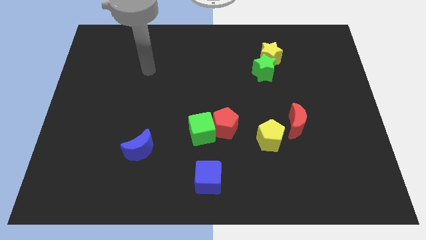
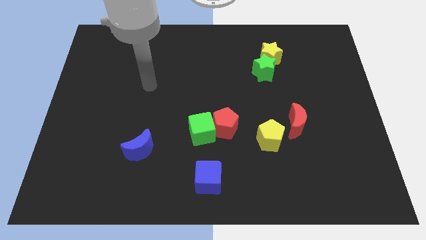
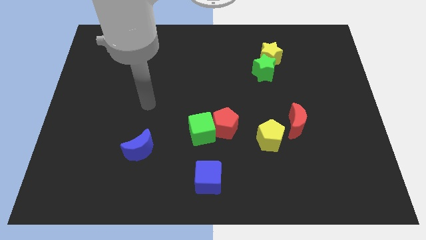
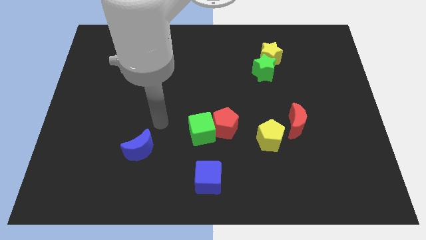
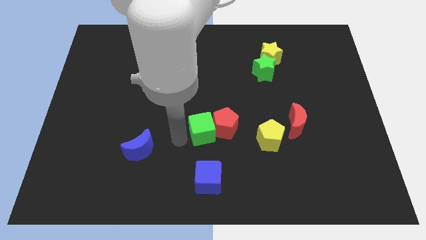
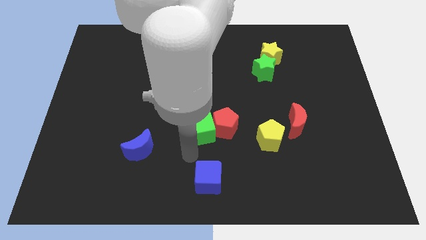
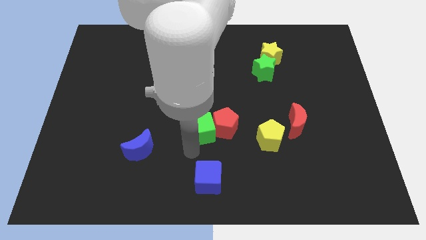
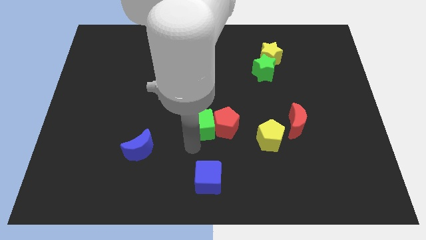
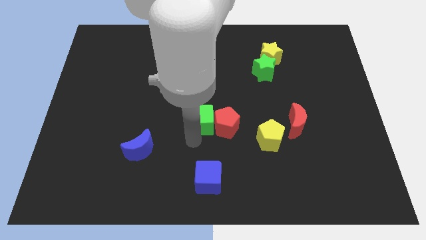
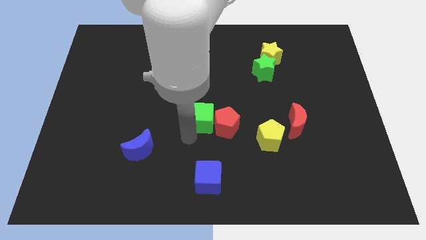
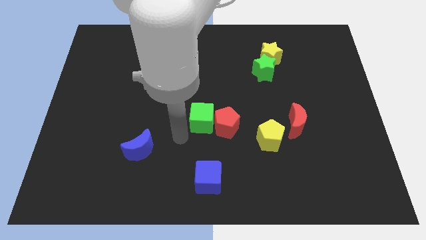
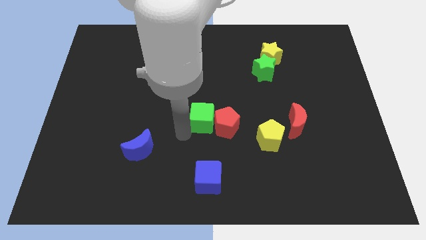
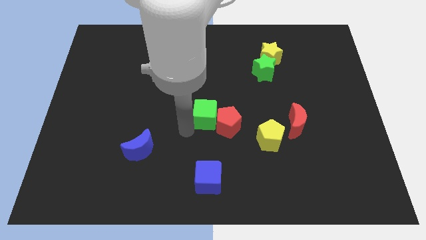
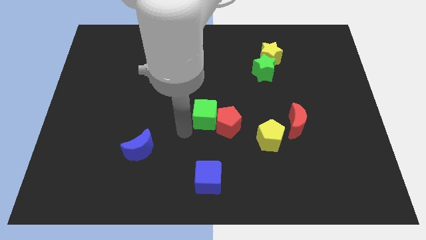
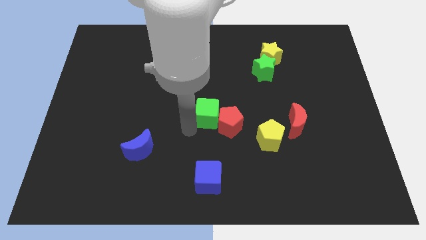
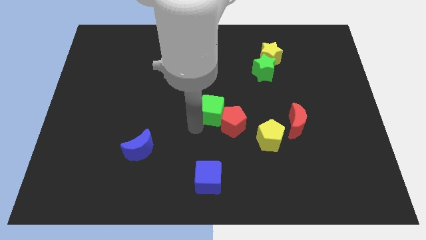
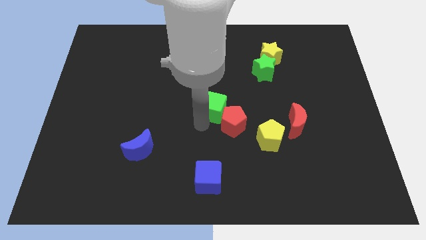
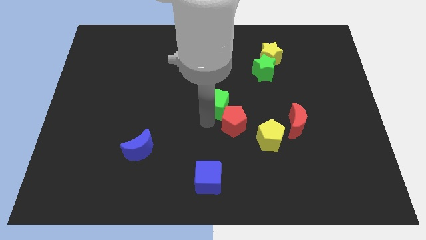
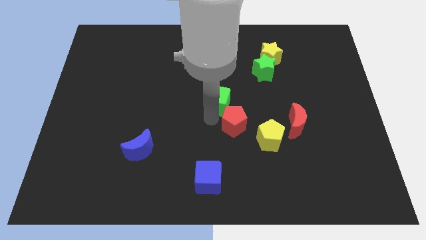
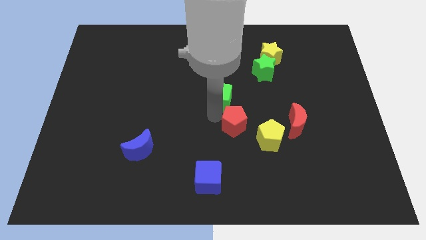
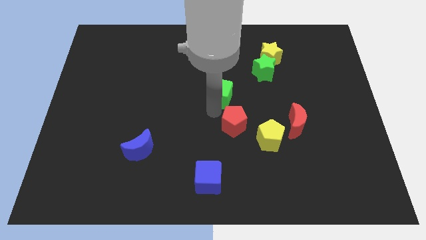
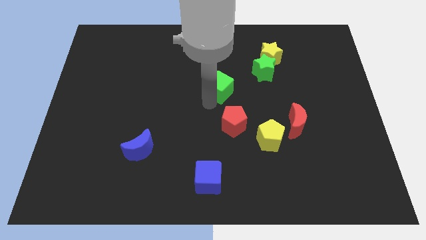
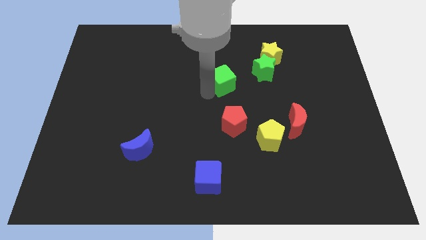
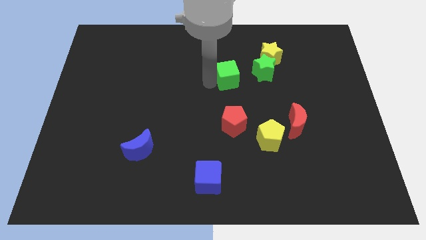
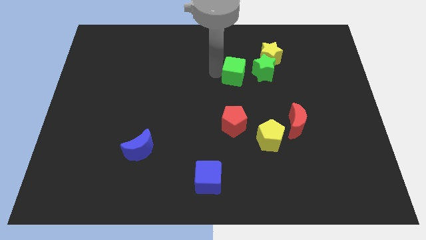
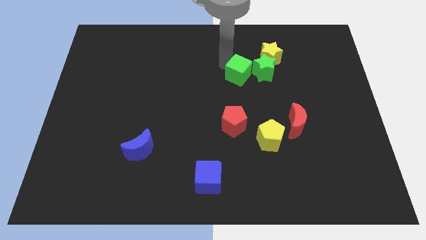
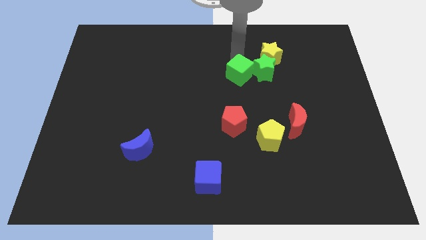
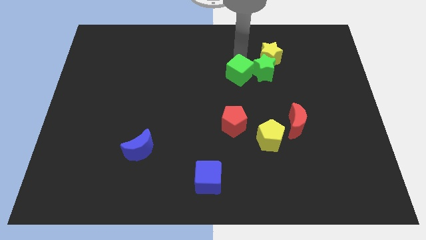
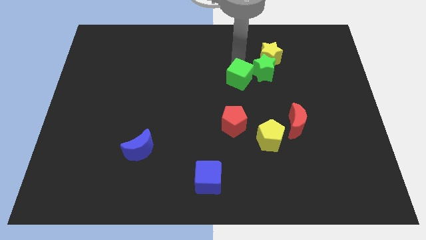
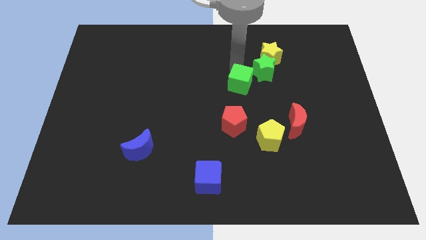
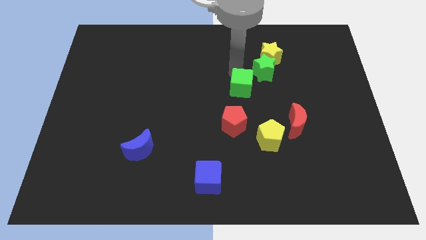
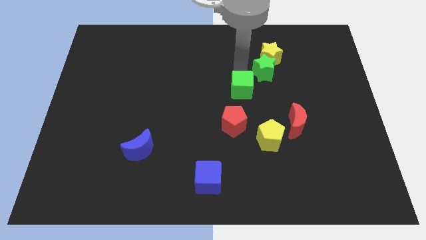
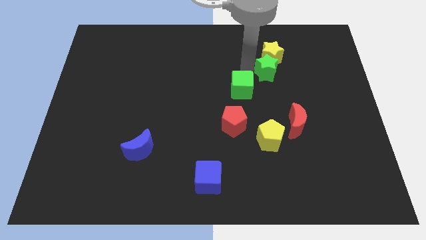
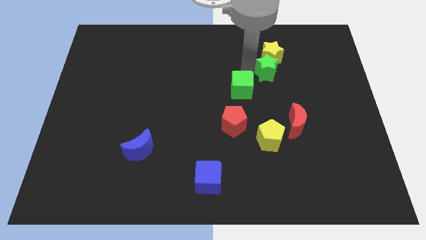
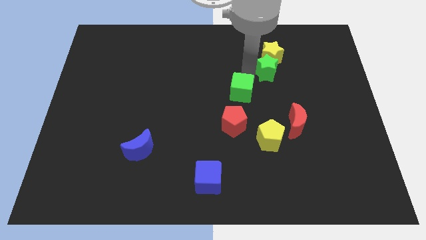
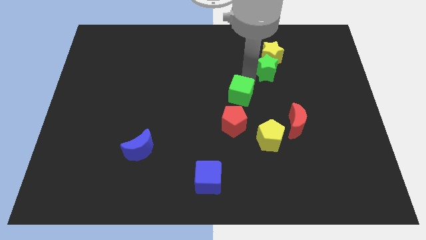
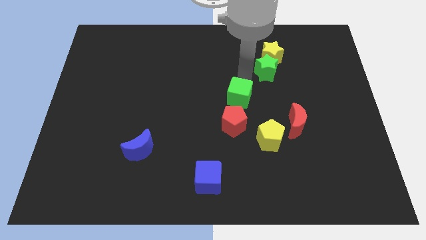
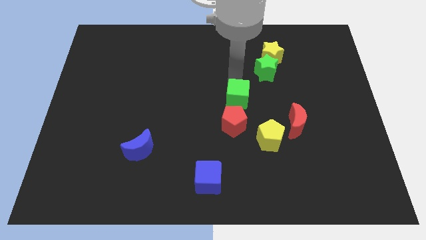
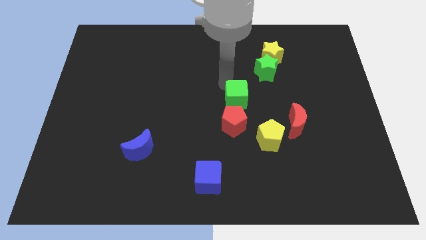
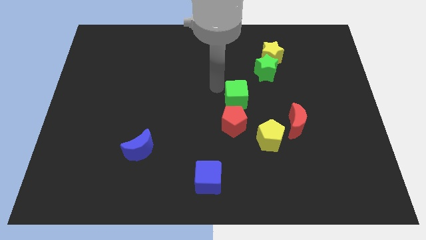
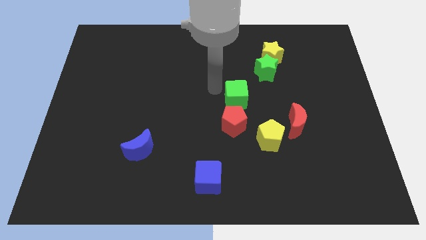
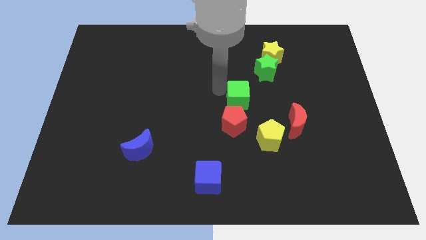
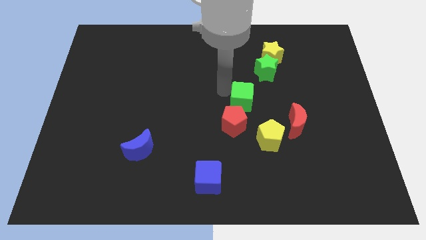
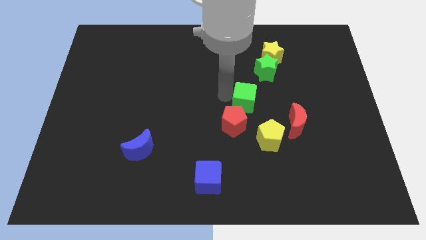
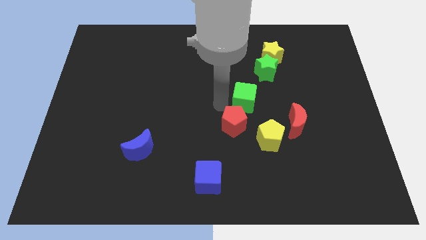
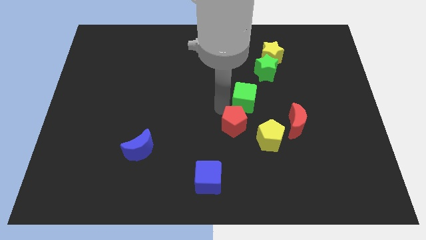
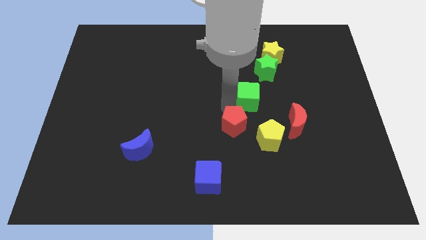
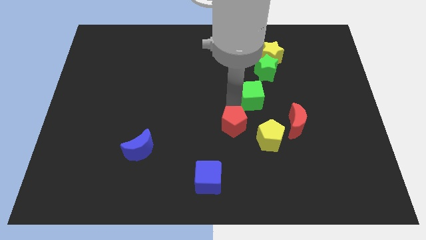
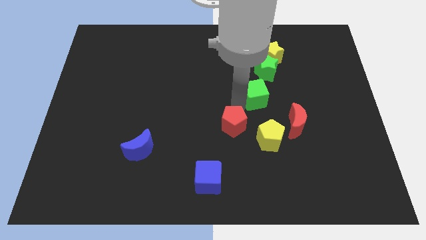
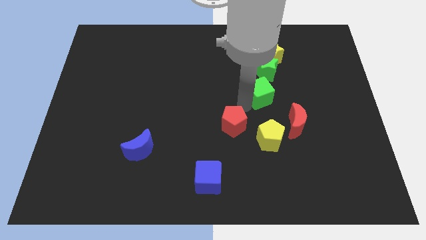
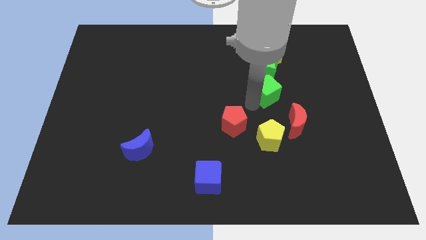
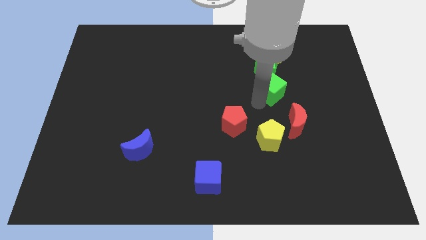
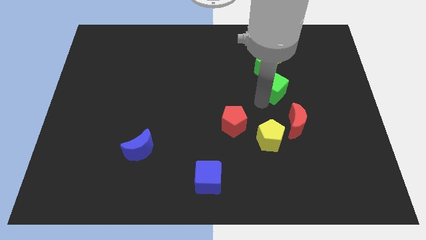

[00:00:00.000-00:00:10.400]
move the green cube upwards and to the right

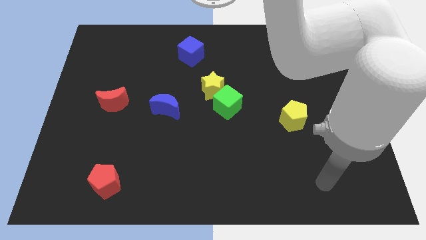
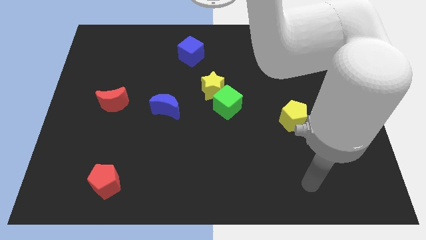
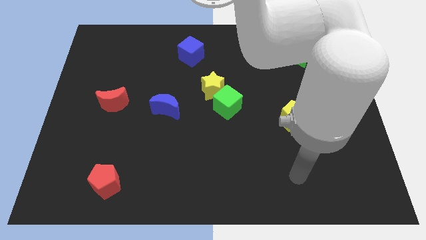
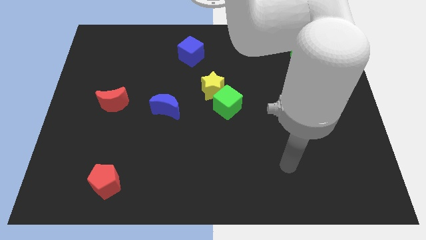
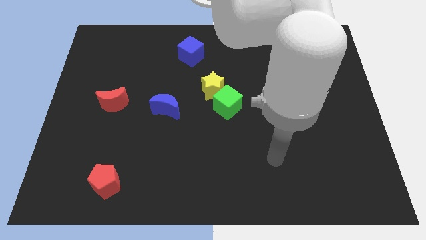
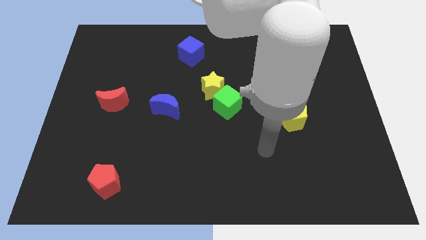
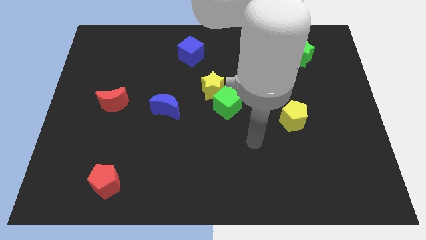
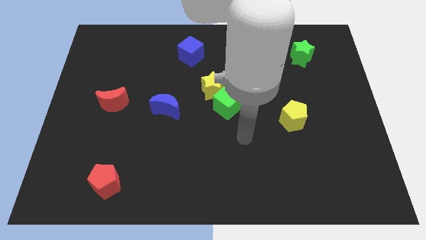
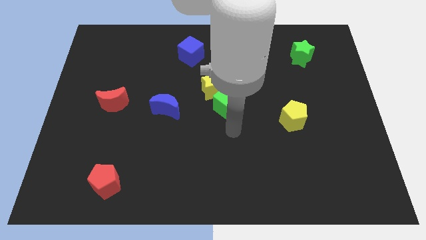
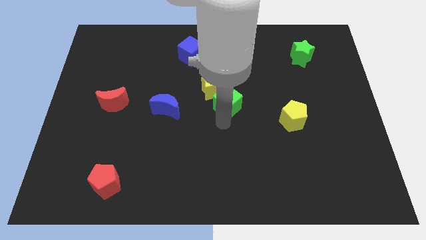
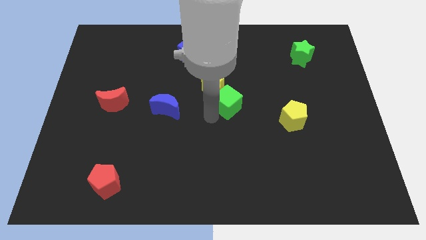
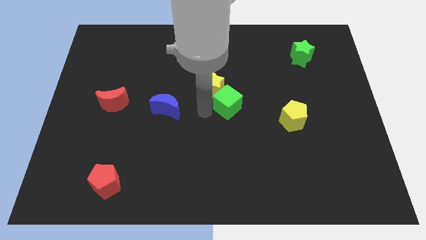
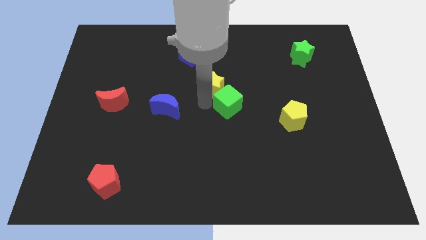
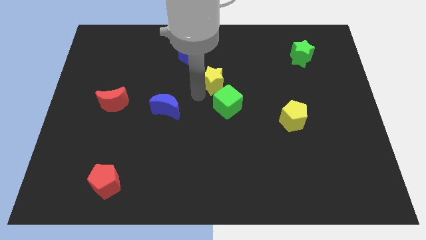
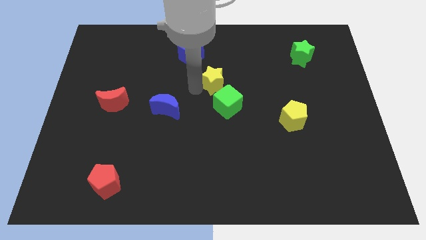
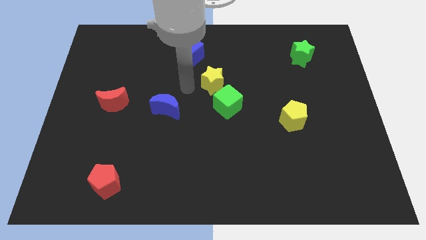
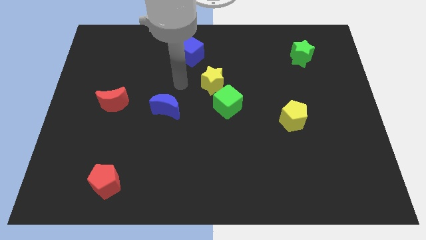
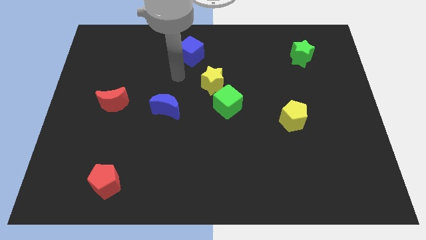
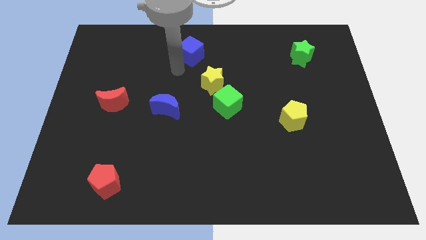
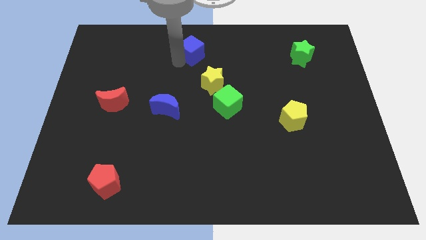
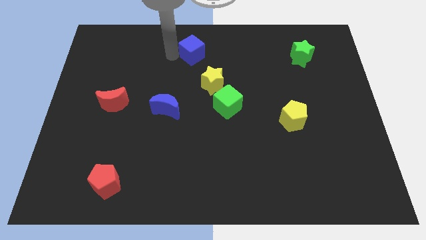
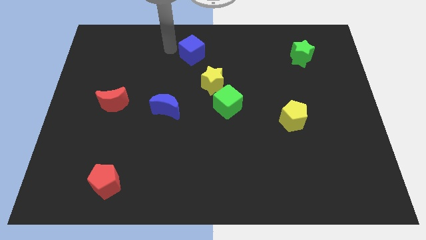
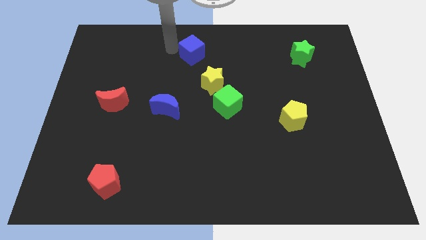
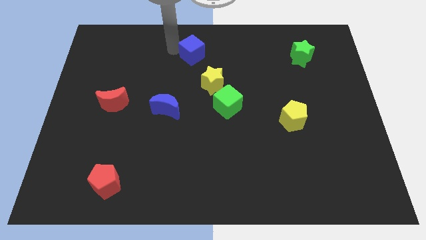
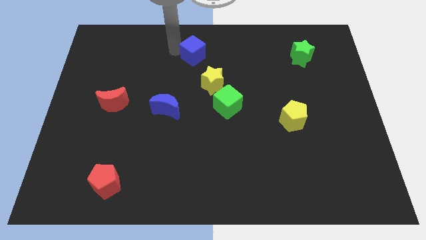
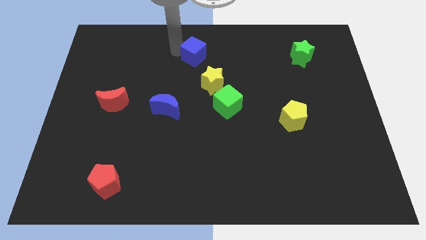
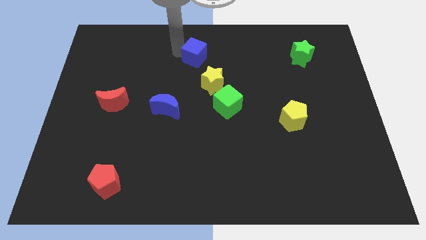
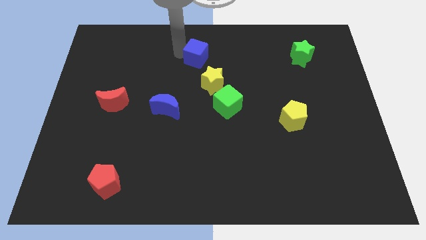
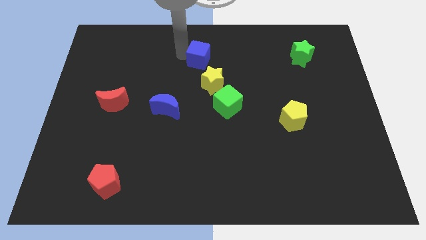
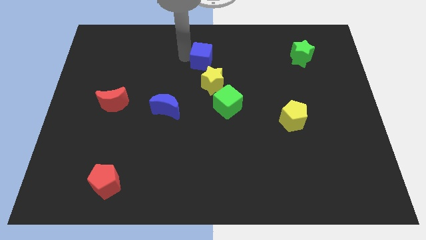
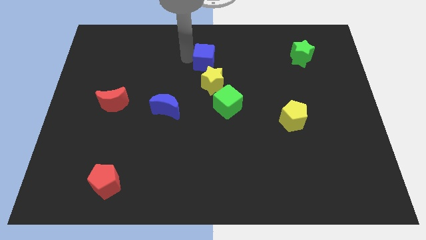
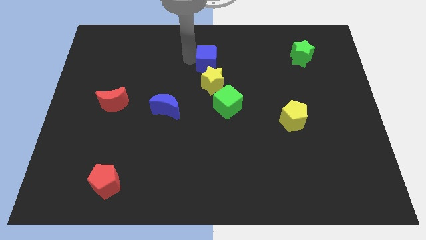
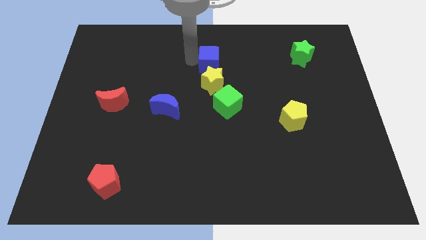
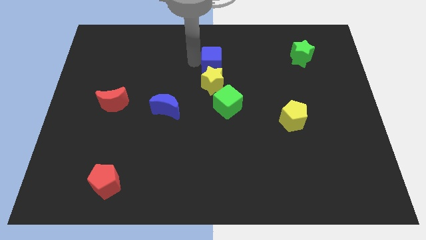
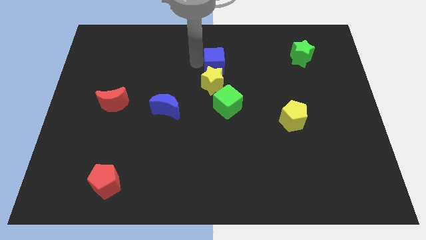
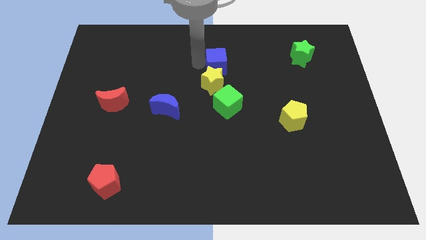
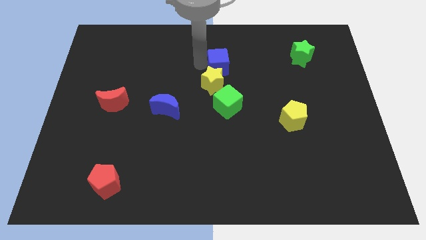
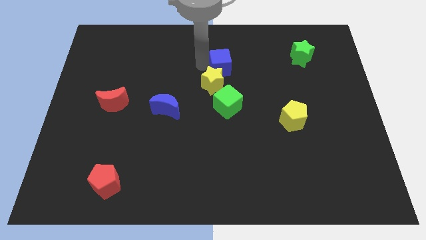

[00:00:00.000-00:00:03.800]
move the blue cube a bit right
